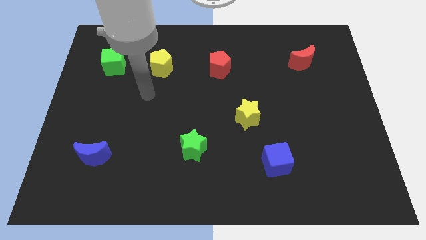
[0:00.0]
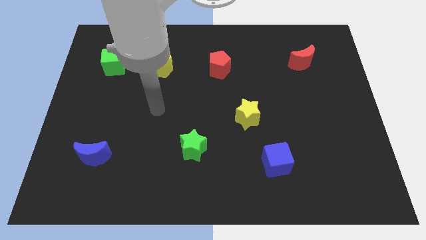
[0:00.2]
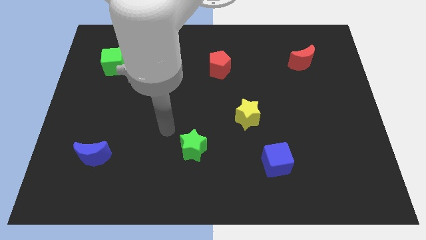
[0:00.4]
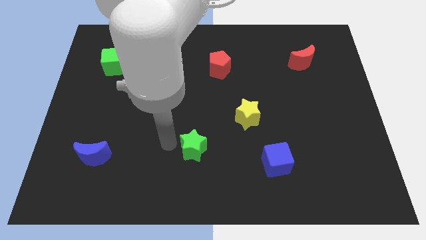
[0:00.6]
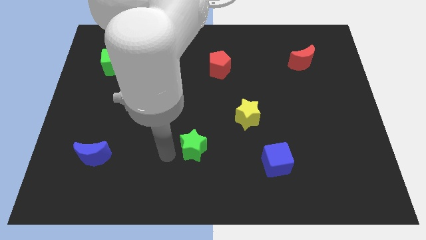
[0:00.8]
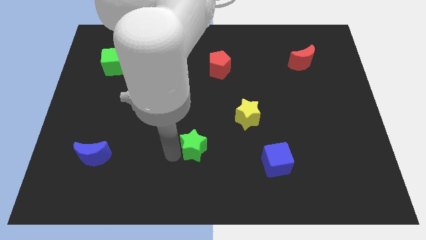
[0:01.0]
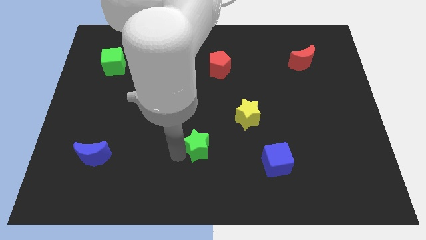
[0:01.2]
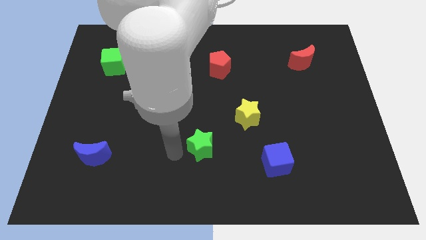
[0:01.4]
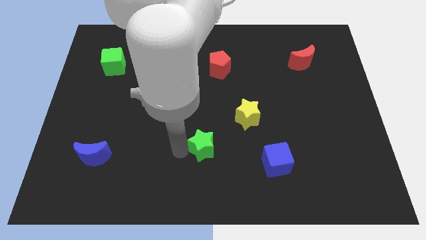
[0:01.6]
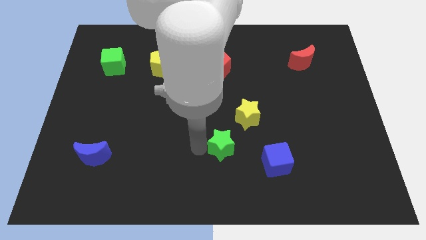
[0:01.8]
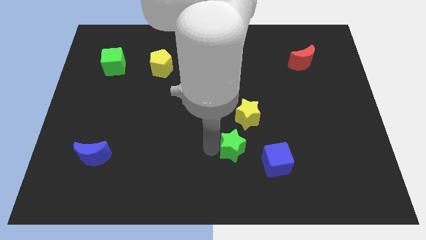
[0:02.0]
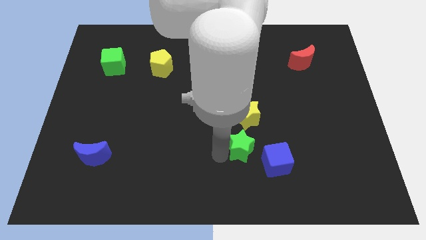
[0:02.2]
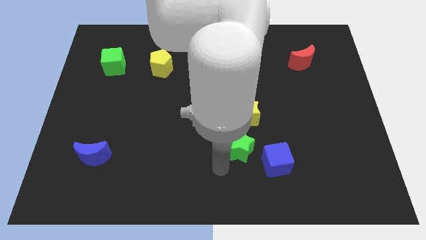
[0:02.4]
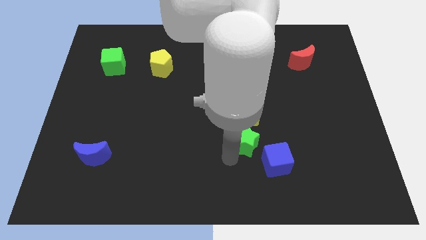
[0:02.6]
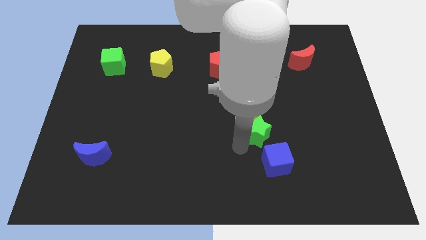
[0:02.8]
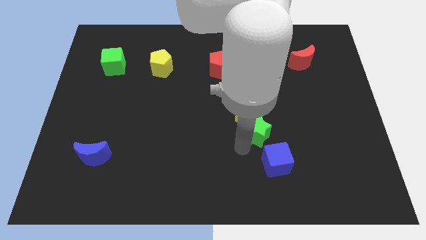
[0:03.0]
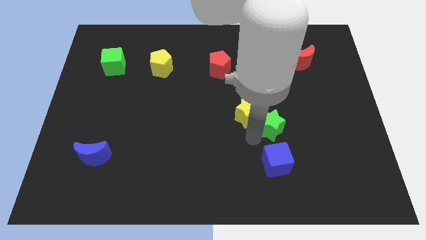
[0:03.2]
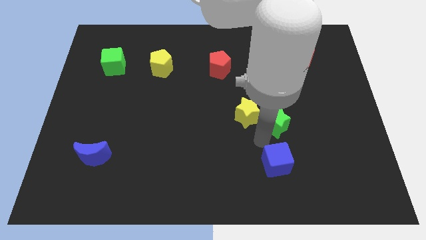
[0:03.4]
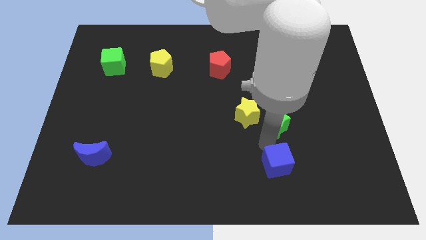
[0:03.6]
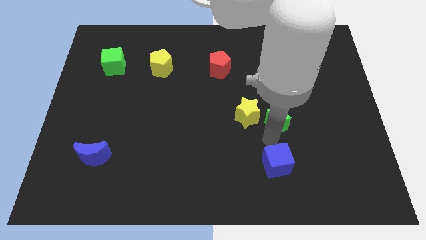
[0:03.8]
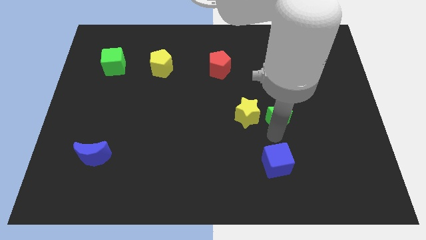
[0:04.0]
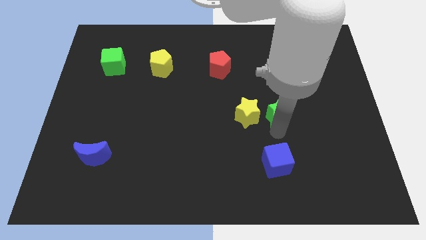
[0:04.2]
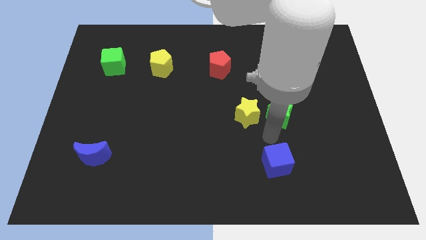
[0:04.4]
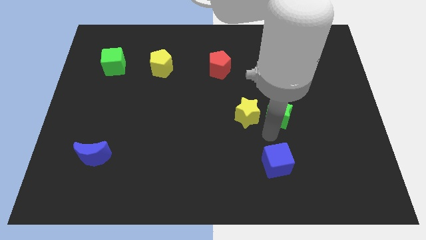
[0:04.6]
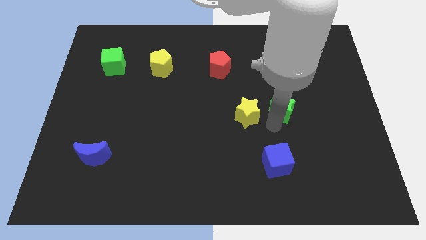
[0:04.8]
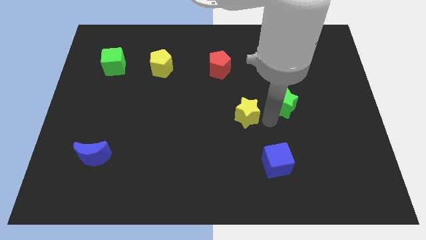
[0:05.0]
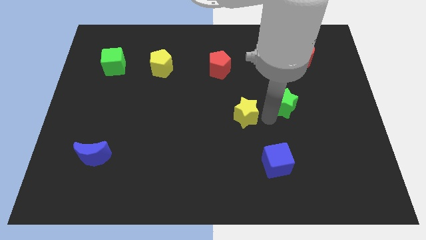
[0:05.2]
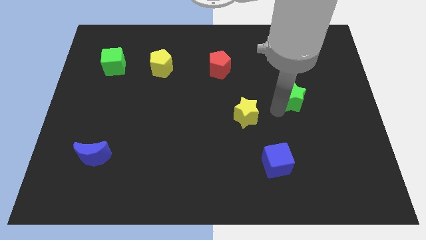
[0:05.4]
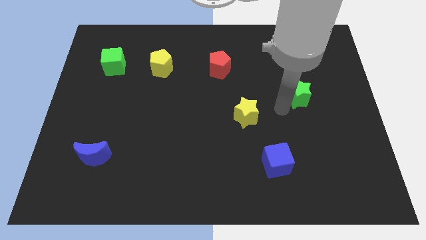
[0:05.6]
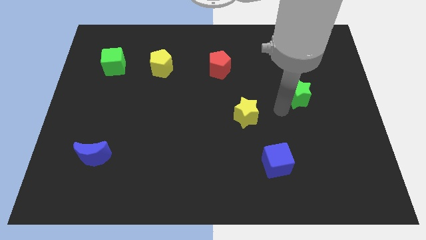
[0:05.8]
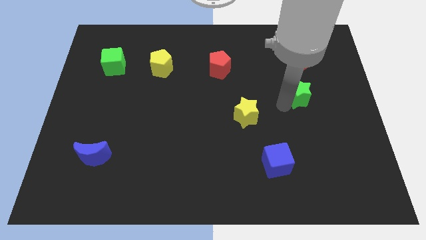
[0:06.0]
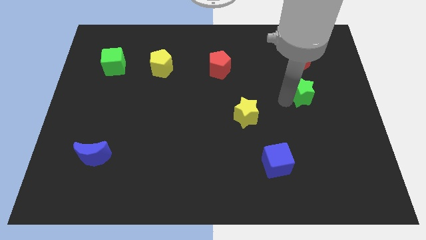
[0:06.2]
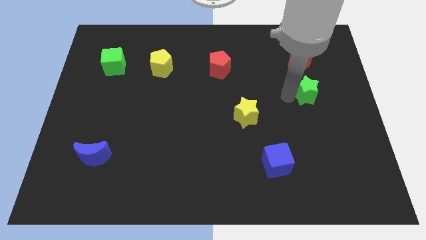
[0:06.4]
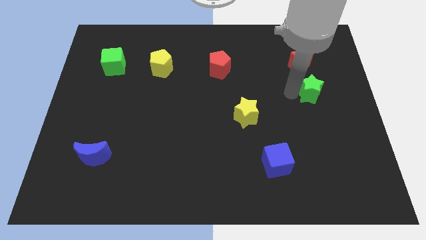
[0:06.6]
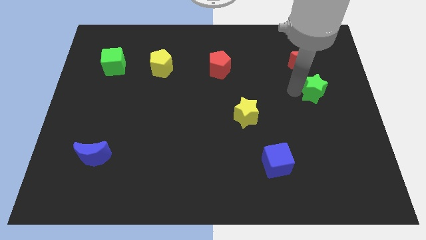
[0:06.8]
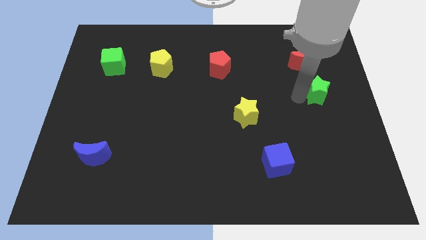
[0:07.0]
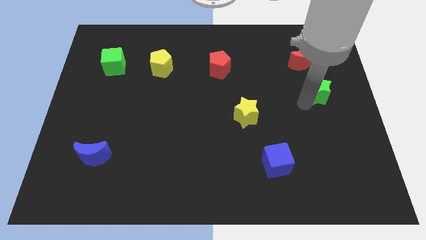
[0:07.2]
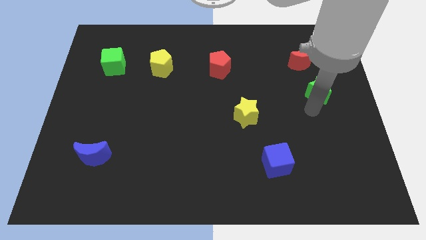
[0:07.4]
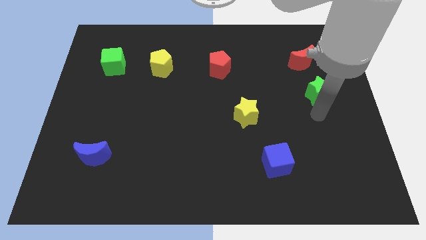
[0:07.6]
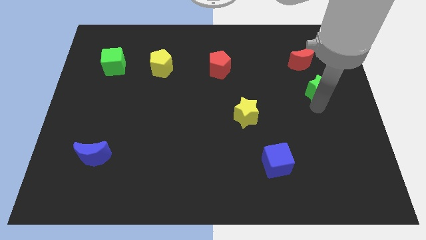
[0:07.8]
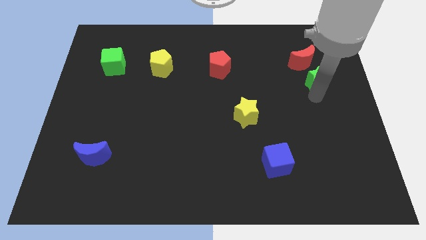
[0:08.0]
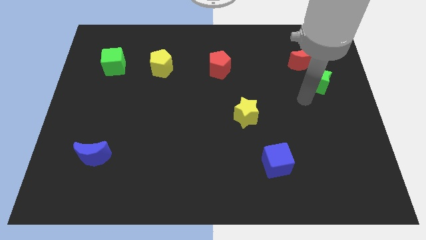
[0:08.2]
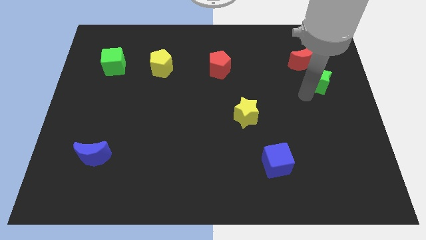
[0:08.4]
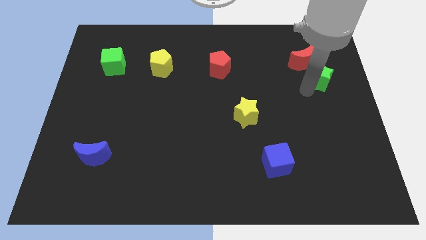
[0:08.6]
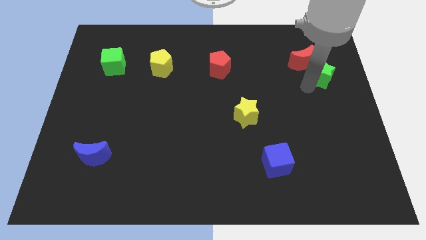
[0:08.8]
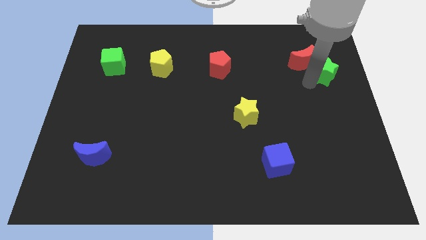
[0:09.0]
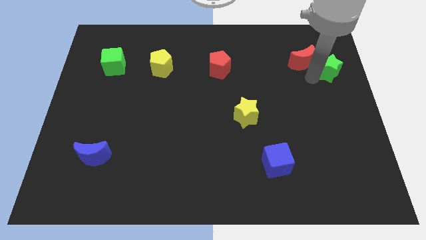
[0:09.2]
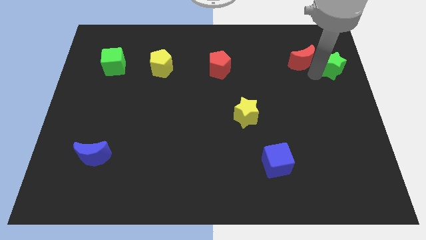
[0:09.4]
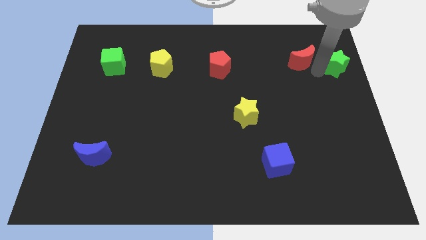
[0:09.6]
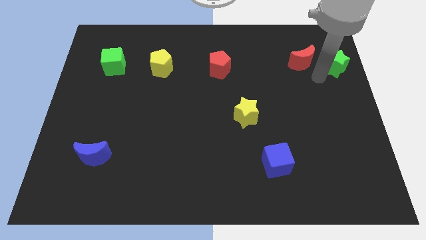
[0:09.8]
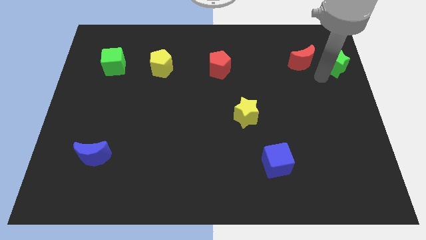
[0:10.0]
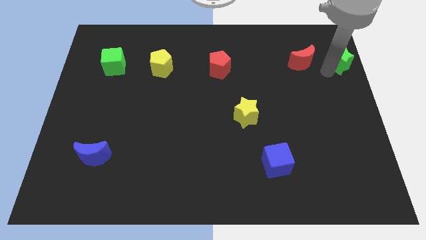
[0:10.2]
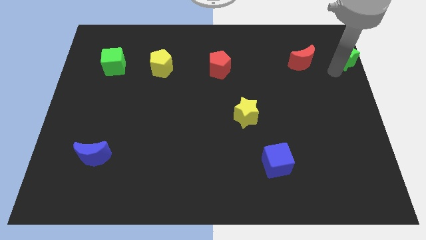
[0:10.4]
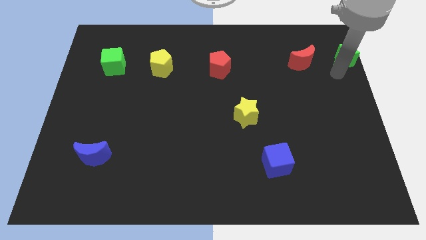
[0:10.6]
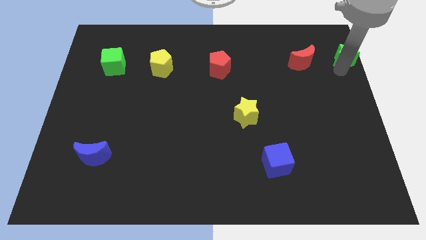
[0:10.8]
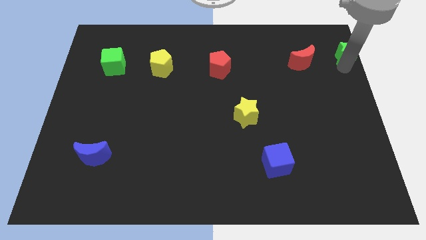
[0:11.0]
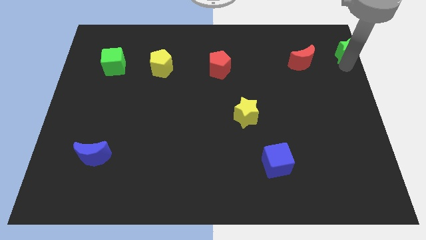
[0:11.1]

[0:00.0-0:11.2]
slide the green star to the upper right corner

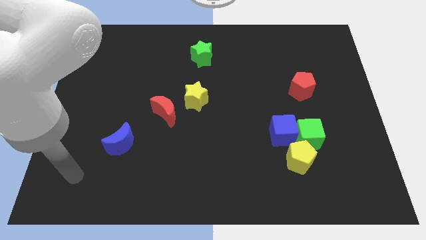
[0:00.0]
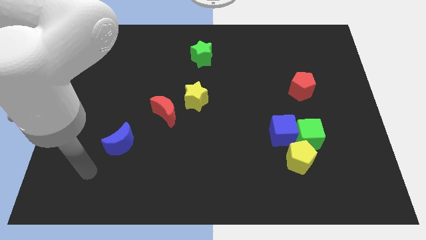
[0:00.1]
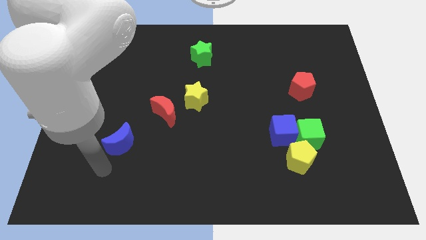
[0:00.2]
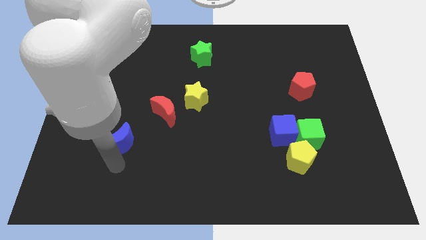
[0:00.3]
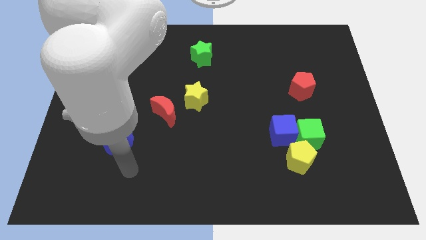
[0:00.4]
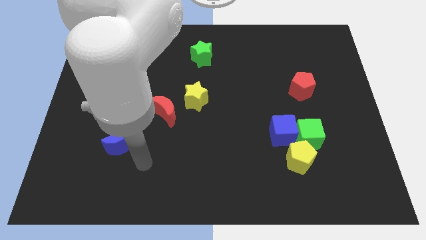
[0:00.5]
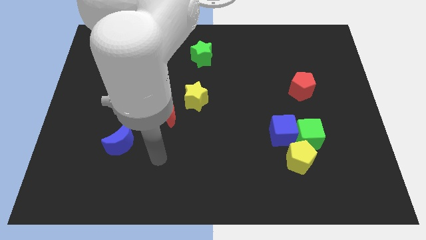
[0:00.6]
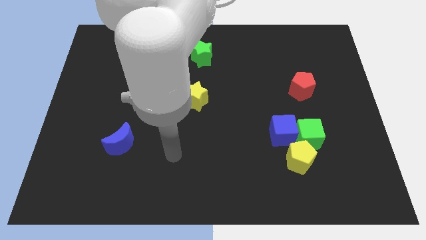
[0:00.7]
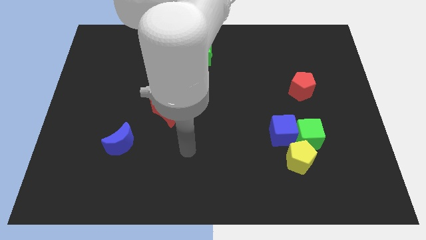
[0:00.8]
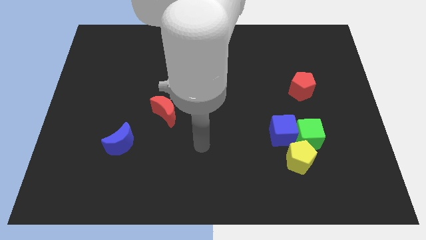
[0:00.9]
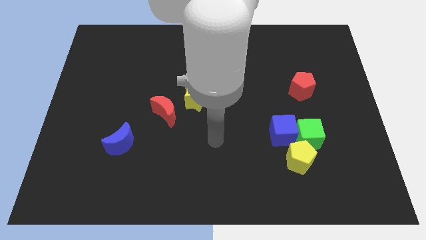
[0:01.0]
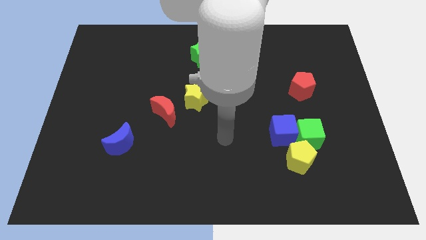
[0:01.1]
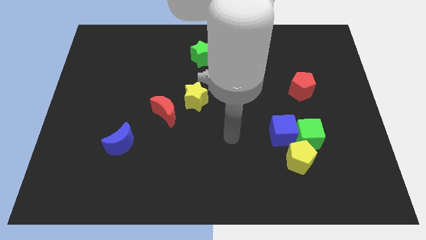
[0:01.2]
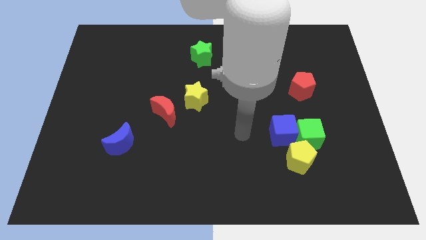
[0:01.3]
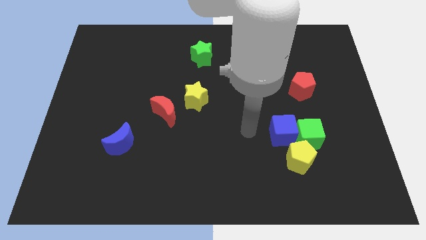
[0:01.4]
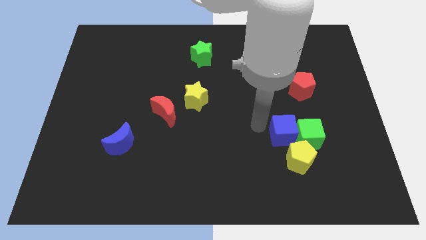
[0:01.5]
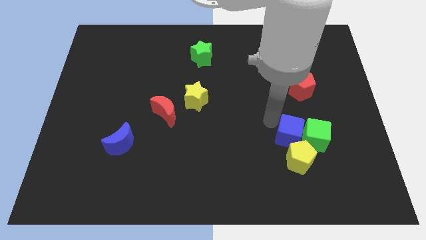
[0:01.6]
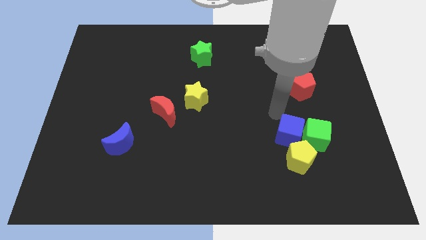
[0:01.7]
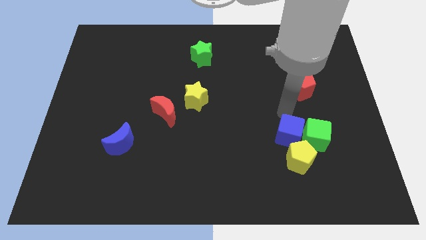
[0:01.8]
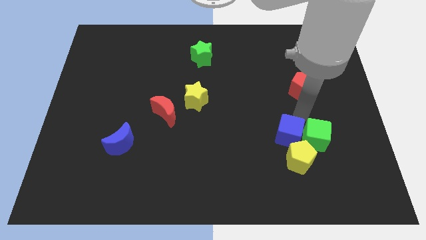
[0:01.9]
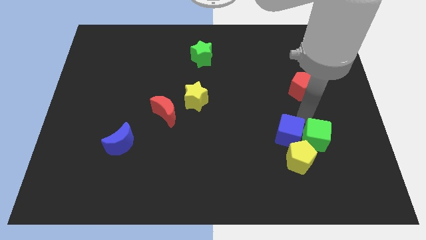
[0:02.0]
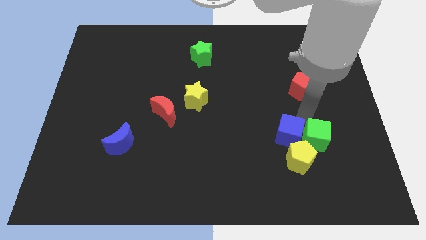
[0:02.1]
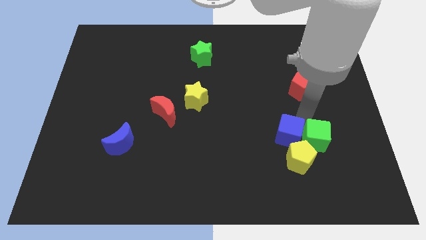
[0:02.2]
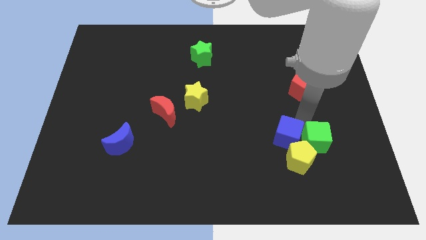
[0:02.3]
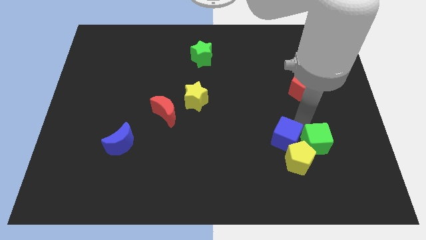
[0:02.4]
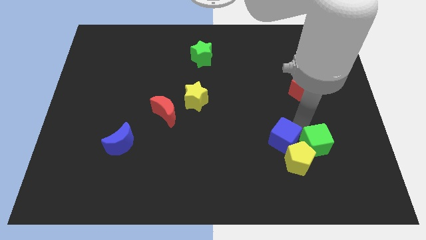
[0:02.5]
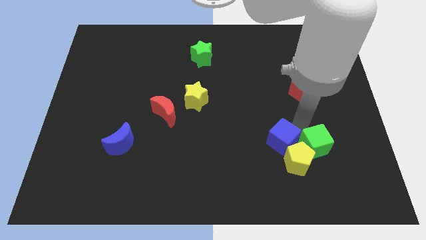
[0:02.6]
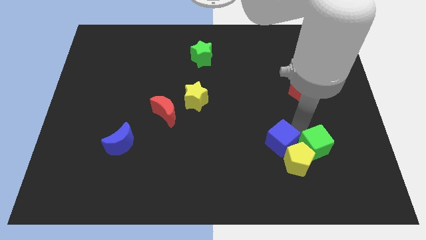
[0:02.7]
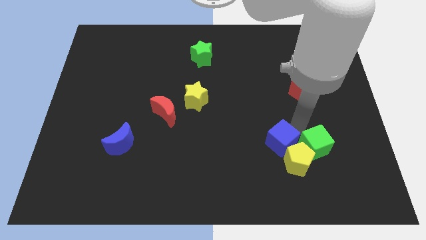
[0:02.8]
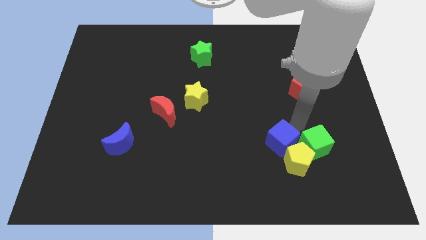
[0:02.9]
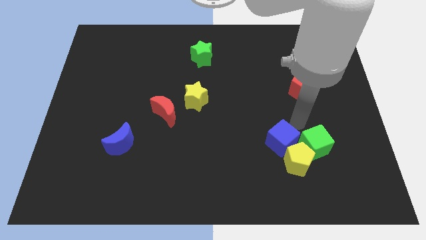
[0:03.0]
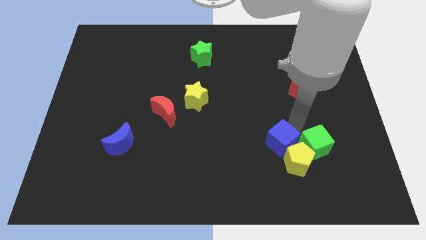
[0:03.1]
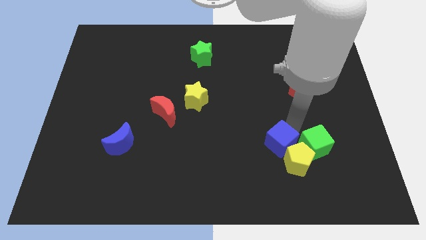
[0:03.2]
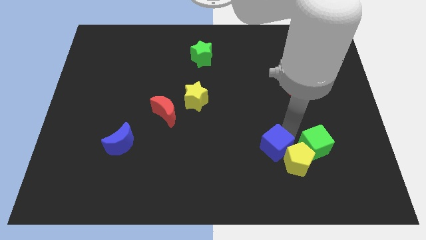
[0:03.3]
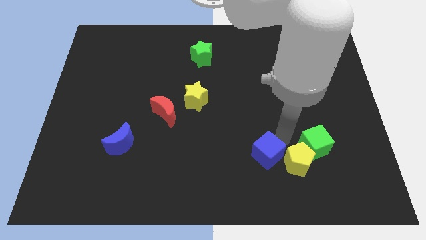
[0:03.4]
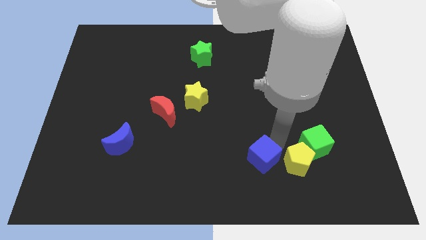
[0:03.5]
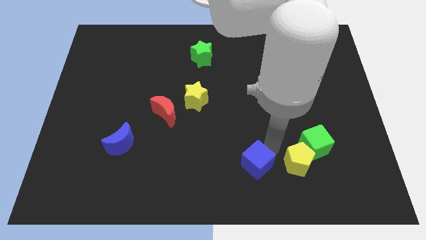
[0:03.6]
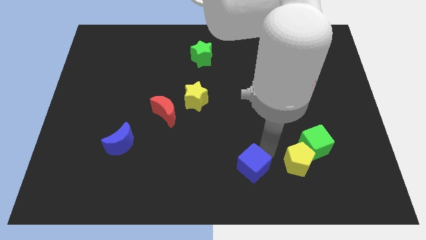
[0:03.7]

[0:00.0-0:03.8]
push the blue cube to the bottom side
